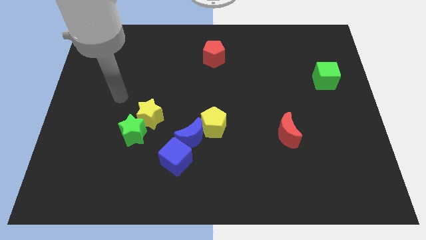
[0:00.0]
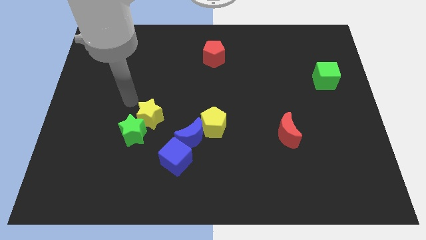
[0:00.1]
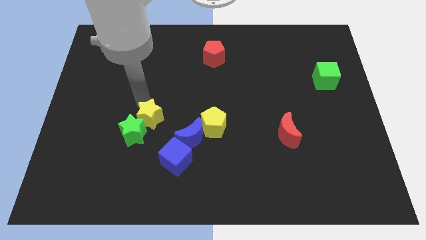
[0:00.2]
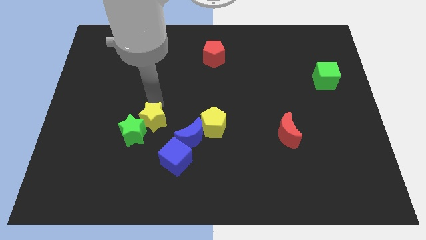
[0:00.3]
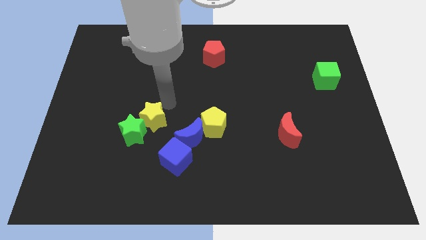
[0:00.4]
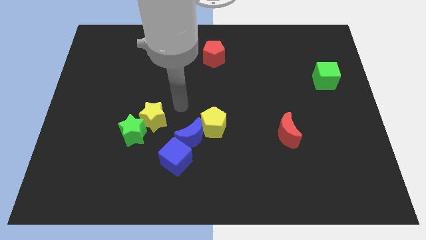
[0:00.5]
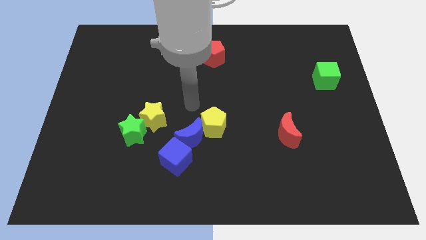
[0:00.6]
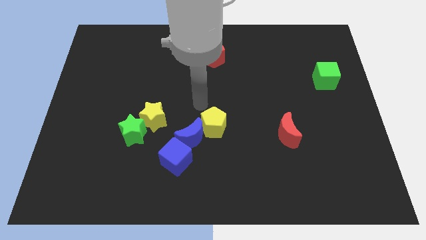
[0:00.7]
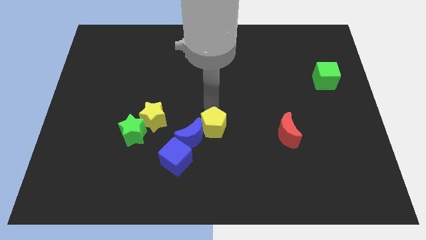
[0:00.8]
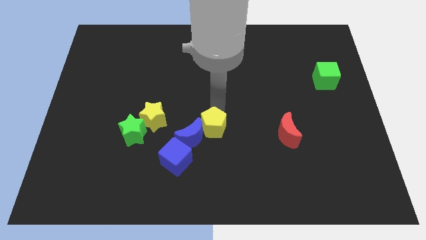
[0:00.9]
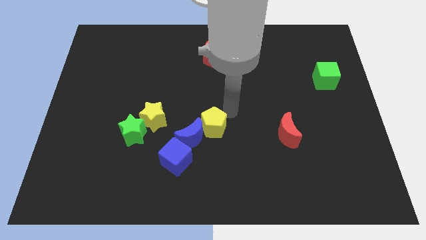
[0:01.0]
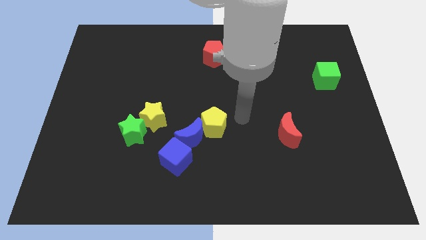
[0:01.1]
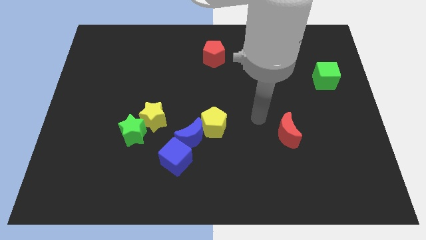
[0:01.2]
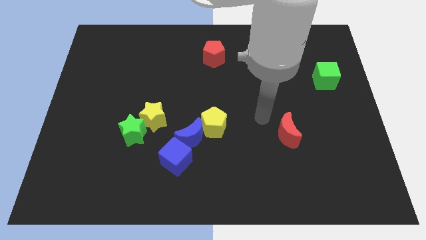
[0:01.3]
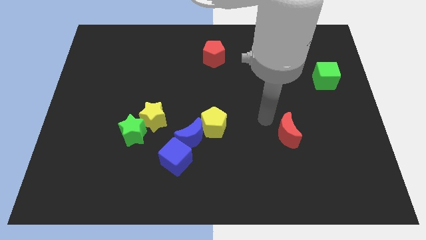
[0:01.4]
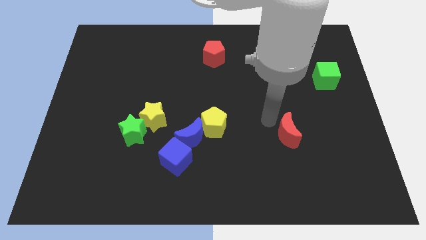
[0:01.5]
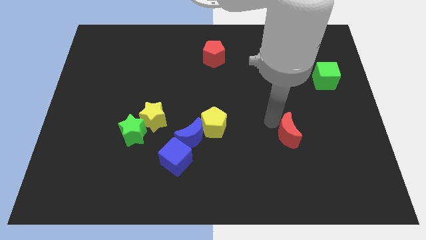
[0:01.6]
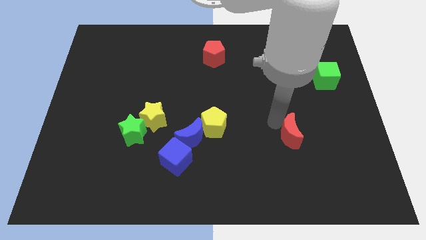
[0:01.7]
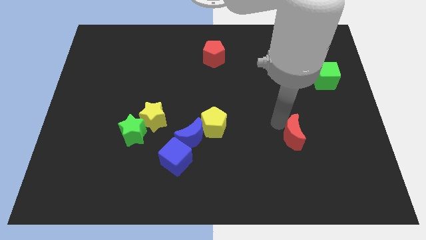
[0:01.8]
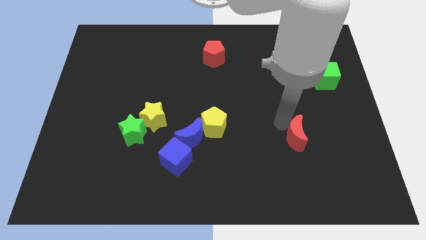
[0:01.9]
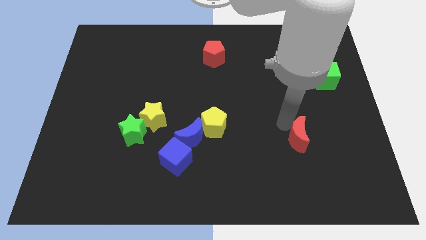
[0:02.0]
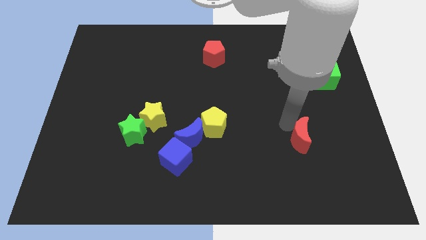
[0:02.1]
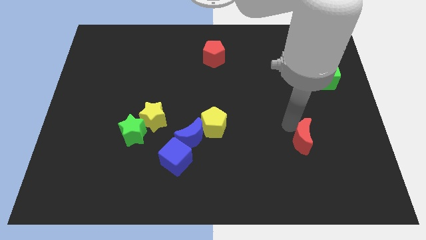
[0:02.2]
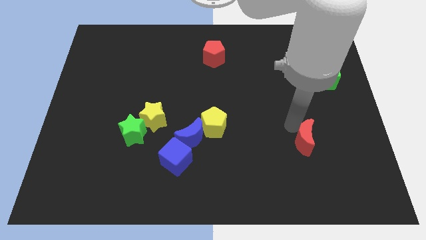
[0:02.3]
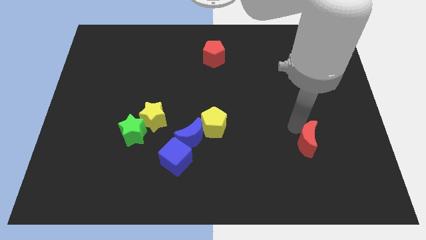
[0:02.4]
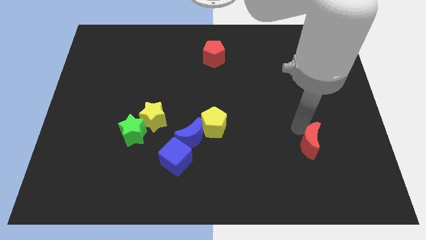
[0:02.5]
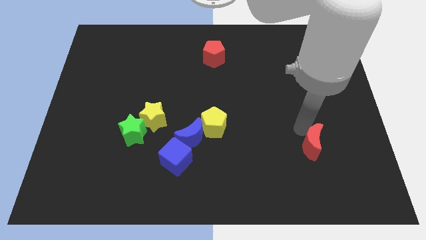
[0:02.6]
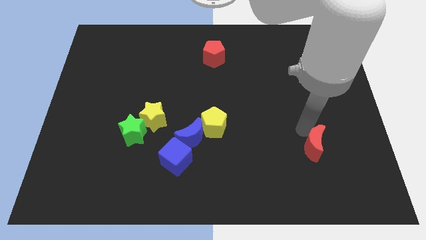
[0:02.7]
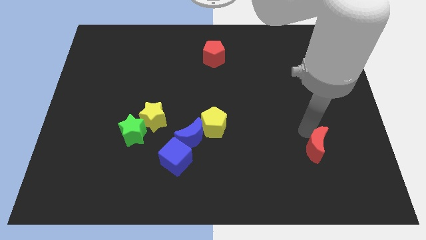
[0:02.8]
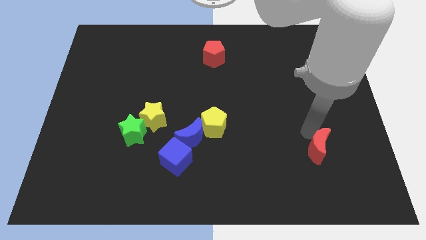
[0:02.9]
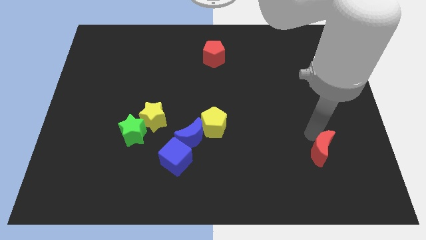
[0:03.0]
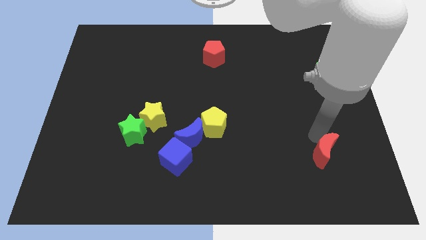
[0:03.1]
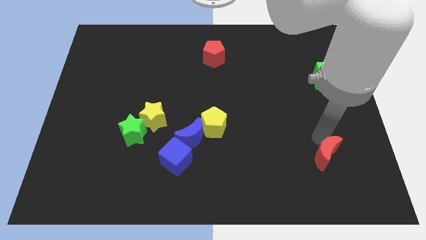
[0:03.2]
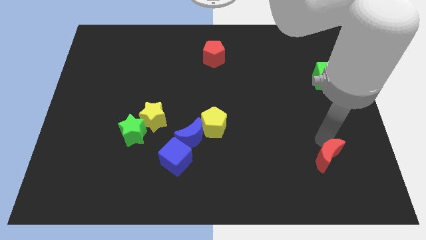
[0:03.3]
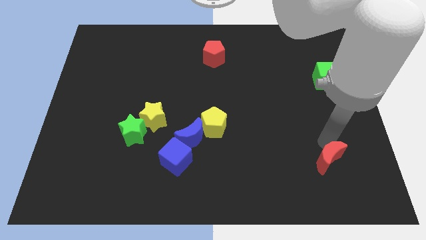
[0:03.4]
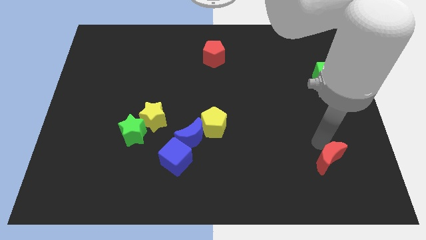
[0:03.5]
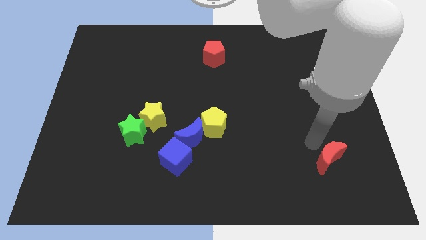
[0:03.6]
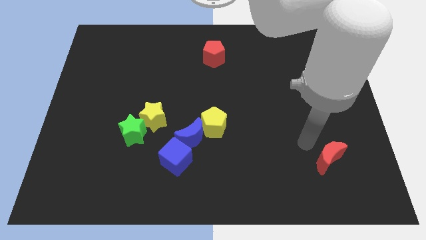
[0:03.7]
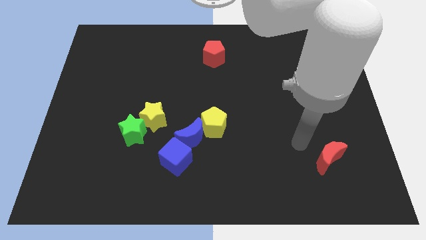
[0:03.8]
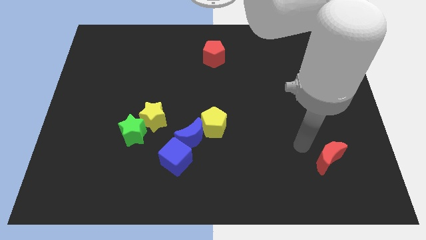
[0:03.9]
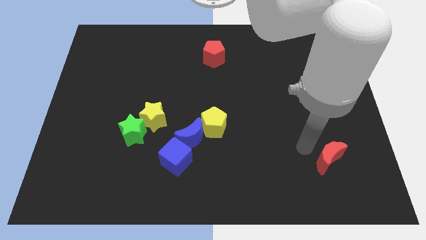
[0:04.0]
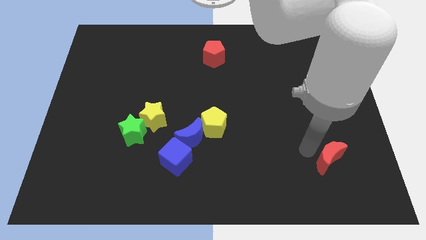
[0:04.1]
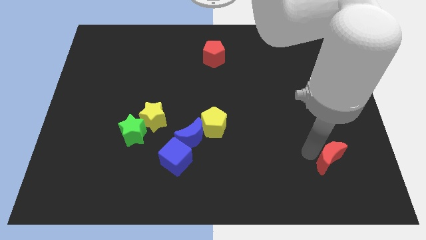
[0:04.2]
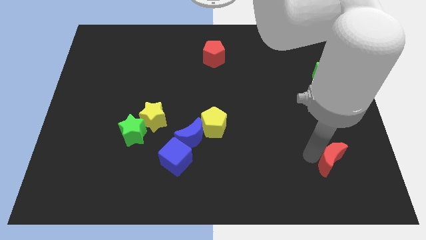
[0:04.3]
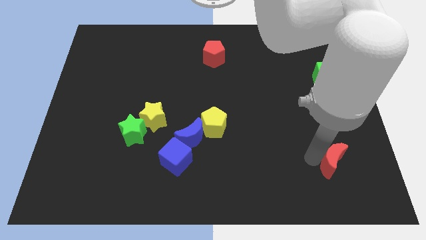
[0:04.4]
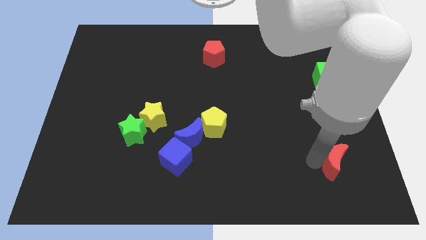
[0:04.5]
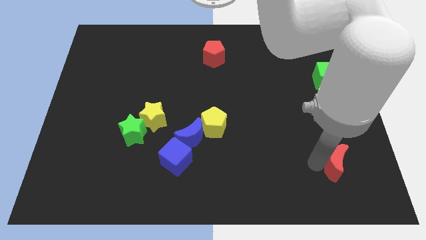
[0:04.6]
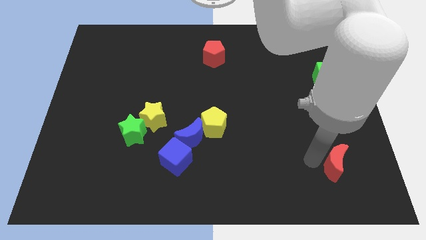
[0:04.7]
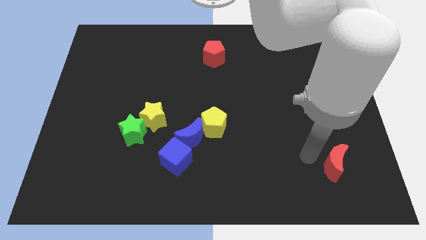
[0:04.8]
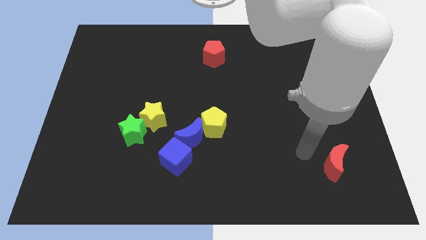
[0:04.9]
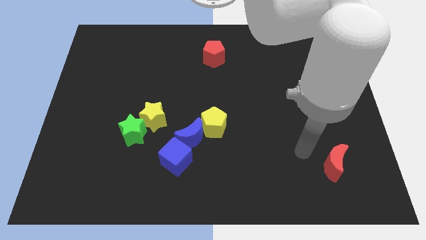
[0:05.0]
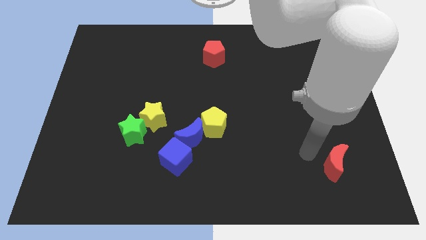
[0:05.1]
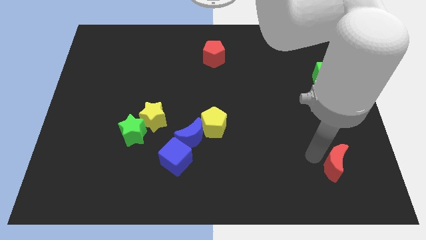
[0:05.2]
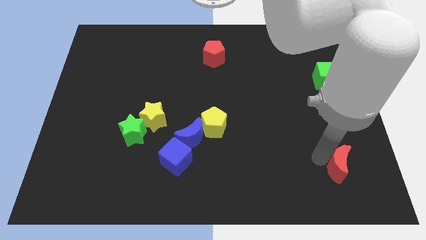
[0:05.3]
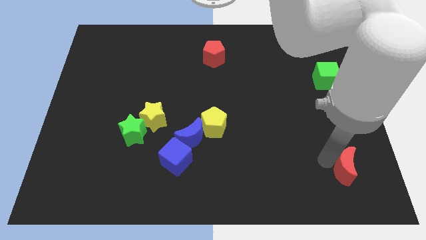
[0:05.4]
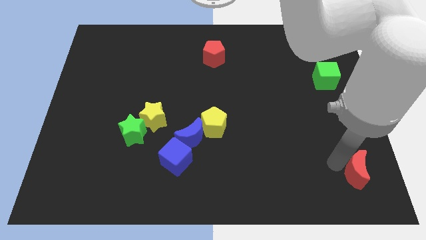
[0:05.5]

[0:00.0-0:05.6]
move the red moon to the bottom right

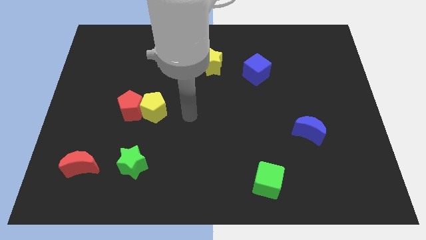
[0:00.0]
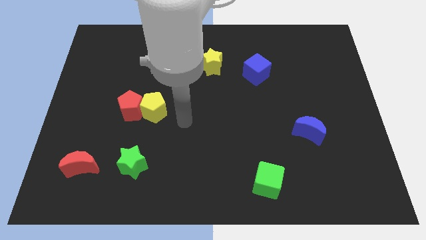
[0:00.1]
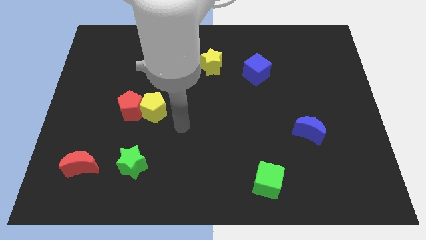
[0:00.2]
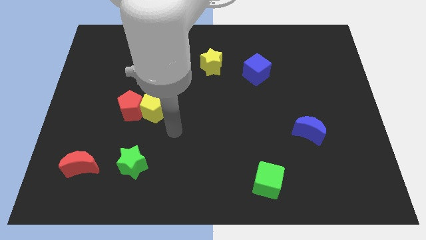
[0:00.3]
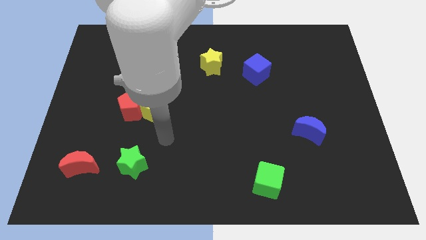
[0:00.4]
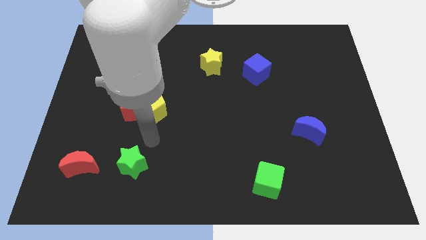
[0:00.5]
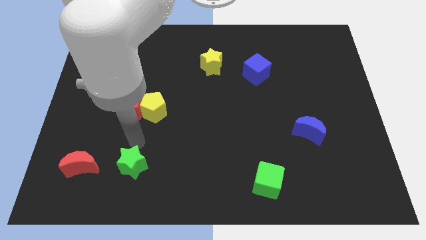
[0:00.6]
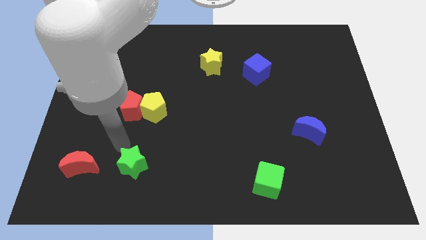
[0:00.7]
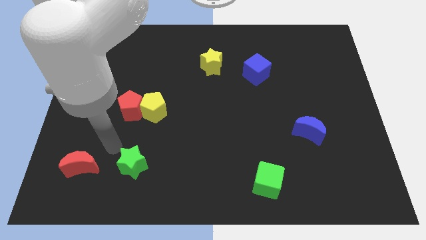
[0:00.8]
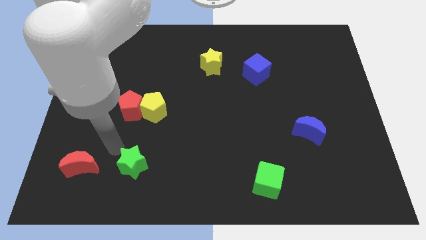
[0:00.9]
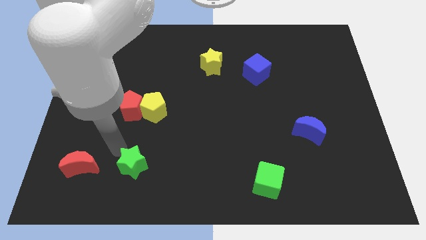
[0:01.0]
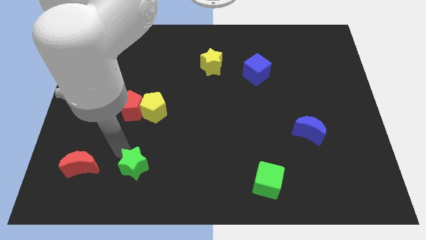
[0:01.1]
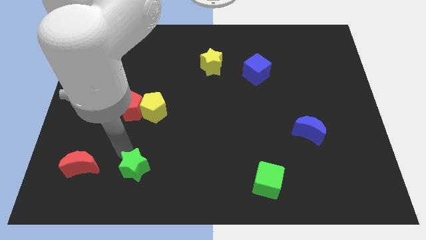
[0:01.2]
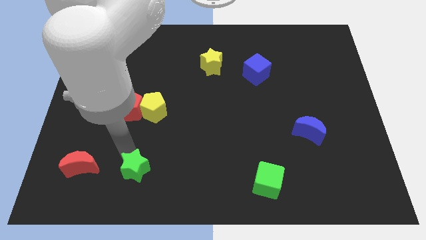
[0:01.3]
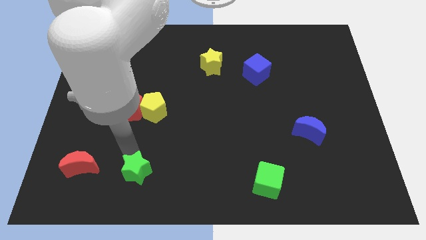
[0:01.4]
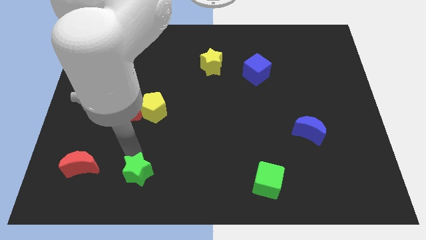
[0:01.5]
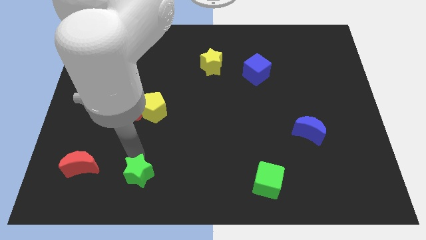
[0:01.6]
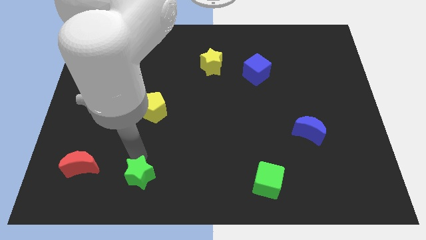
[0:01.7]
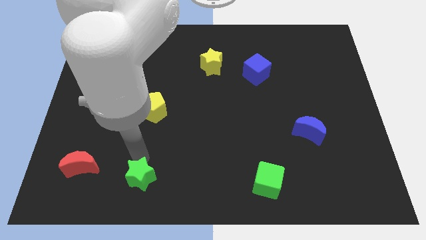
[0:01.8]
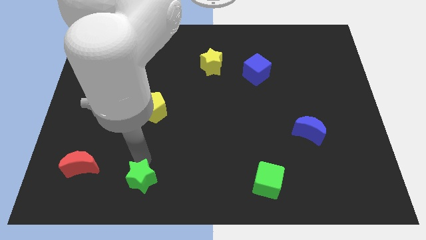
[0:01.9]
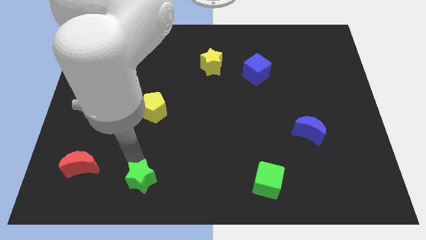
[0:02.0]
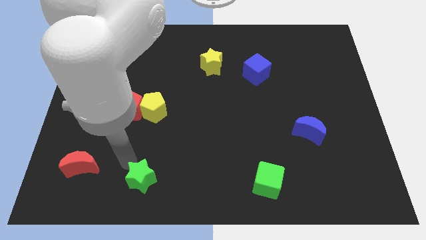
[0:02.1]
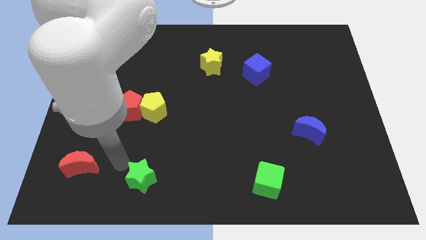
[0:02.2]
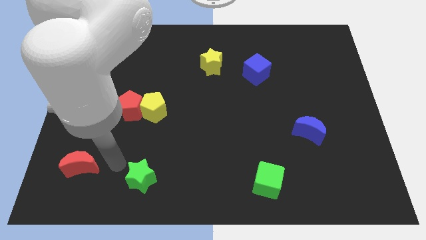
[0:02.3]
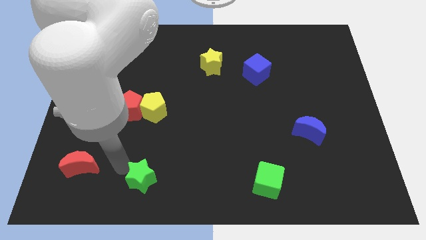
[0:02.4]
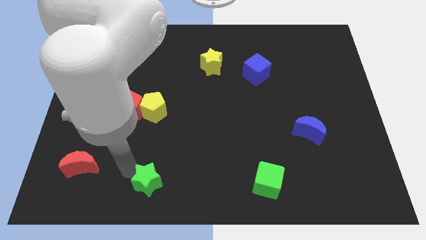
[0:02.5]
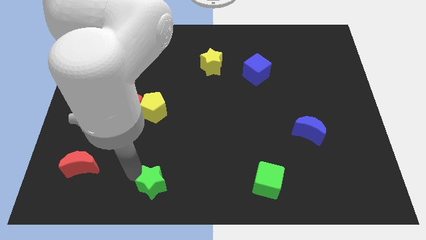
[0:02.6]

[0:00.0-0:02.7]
put the green star to the bottom
